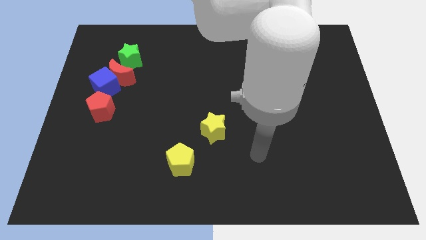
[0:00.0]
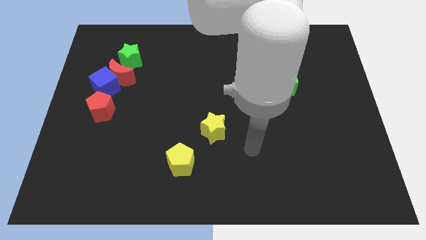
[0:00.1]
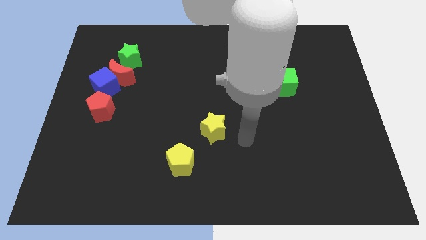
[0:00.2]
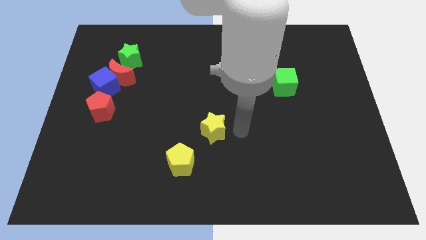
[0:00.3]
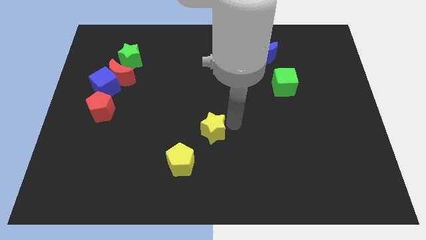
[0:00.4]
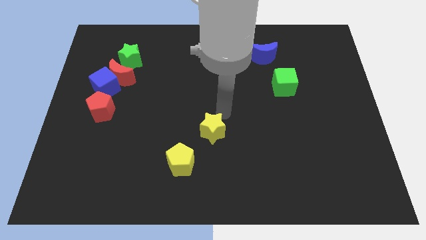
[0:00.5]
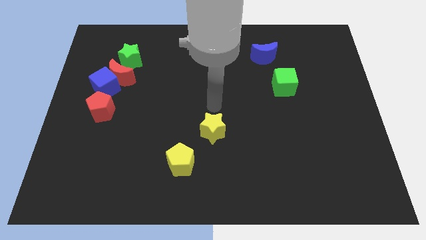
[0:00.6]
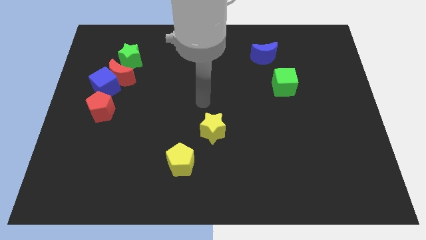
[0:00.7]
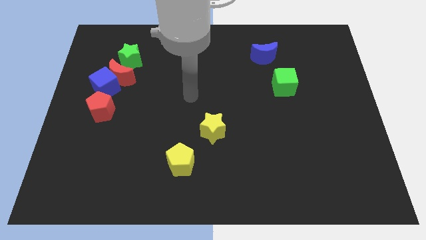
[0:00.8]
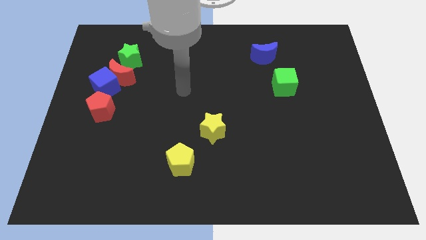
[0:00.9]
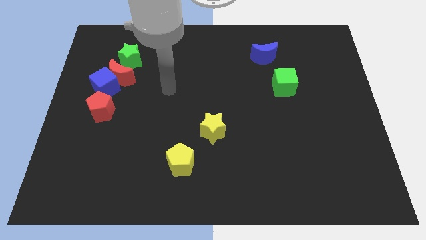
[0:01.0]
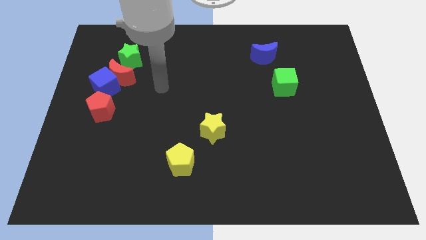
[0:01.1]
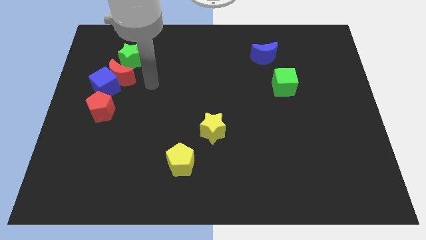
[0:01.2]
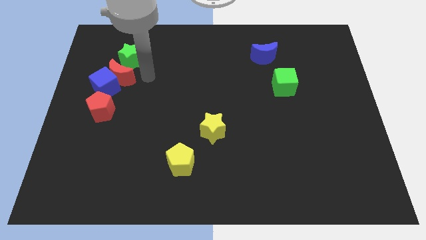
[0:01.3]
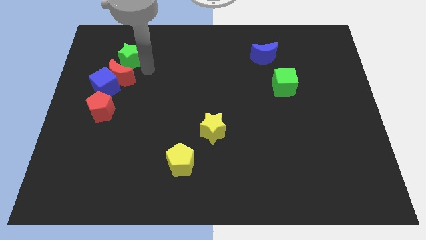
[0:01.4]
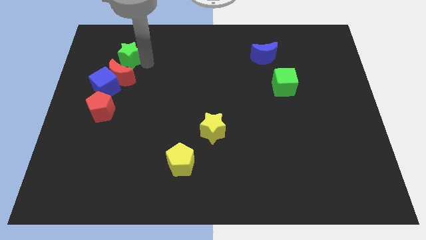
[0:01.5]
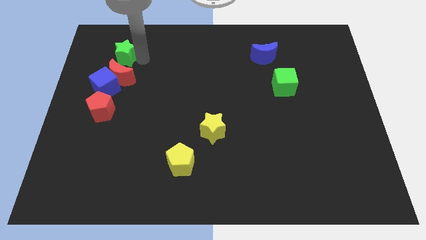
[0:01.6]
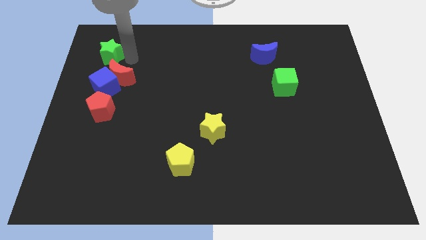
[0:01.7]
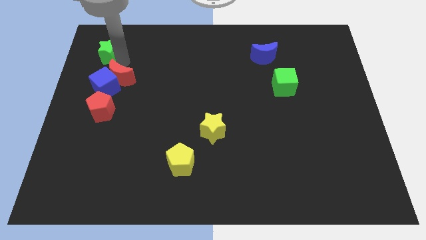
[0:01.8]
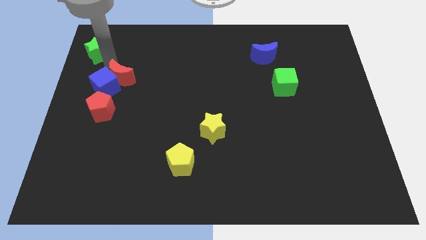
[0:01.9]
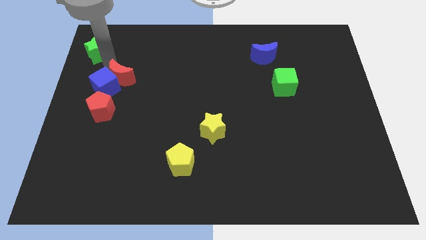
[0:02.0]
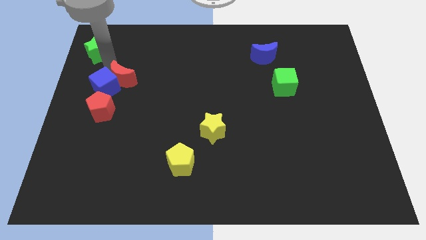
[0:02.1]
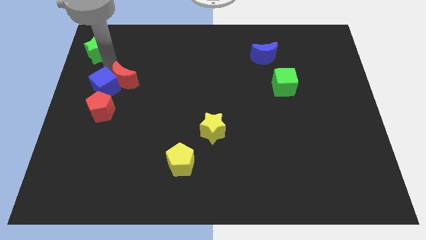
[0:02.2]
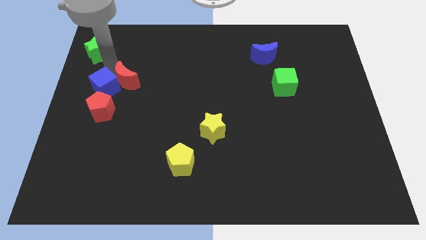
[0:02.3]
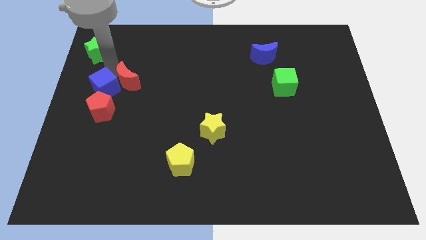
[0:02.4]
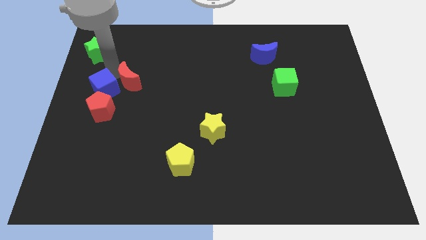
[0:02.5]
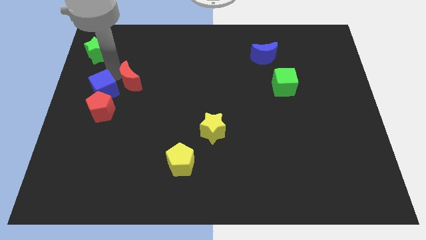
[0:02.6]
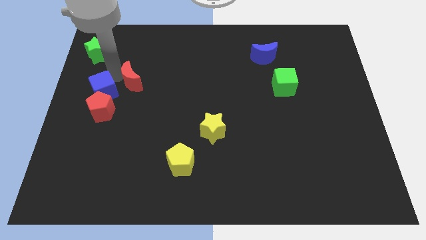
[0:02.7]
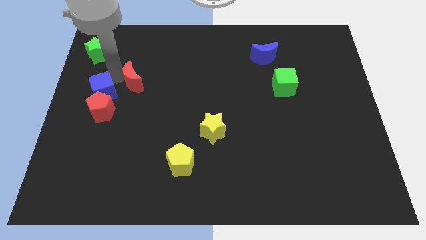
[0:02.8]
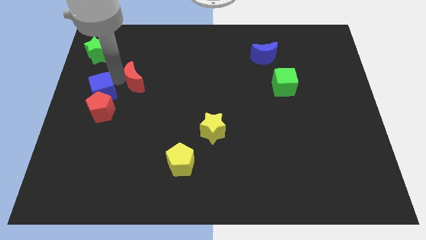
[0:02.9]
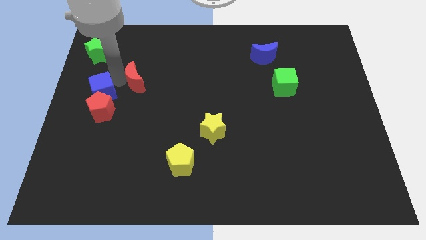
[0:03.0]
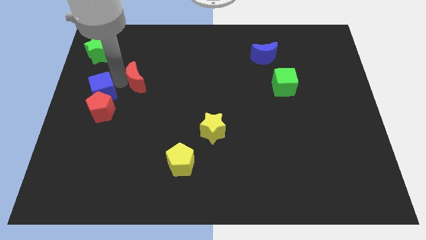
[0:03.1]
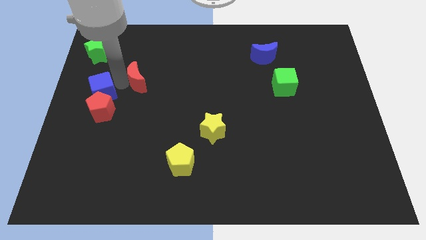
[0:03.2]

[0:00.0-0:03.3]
pull the red moon apart from the blue cube and green star

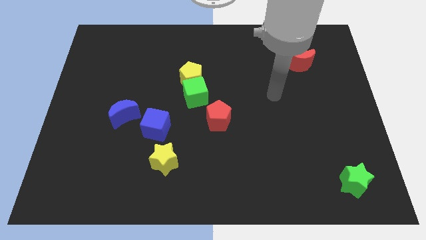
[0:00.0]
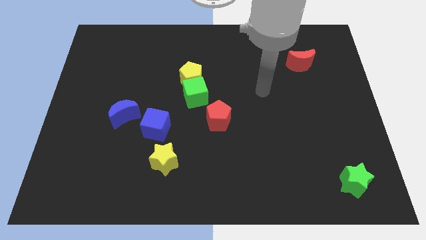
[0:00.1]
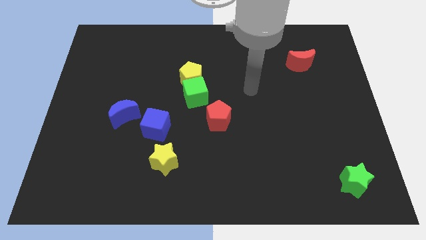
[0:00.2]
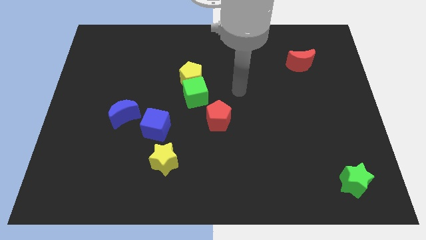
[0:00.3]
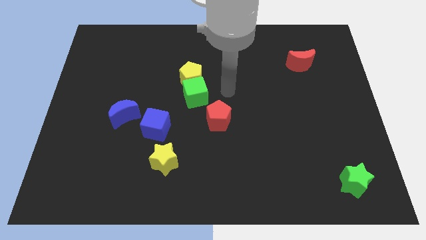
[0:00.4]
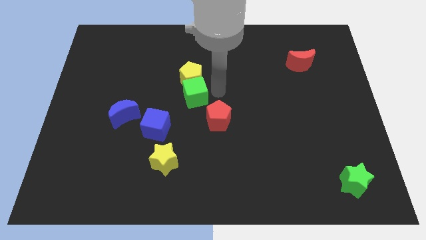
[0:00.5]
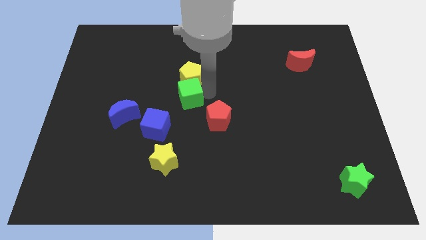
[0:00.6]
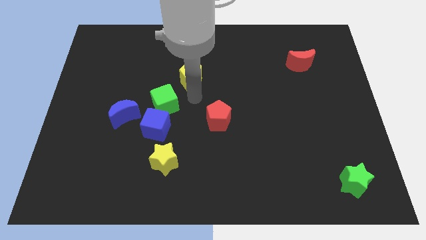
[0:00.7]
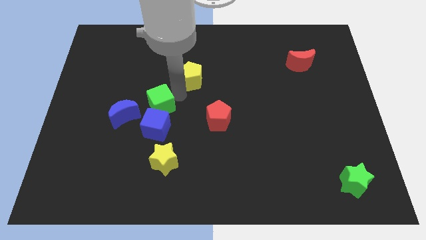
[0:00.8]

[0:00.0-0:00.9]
separate the yellow pentagon from the green cube

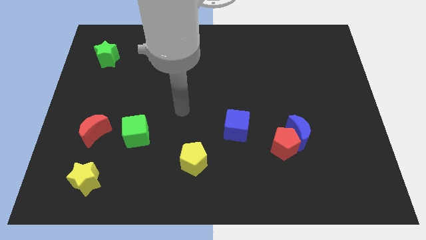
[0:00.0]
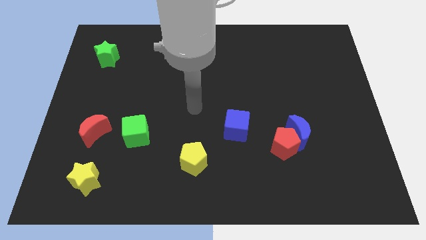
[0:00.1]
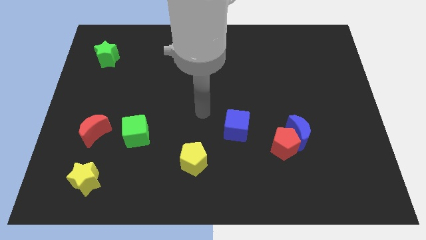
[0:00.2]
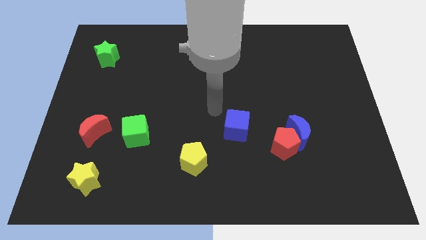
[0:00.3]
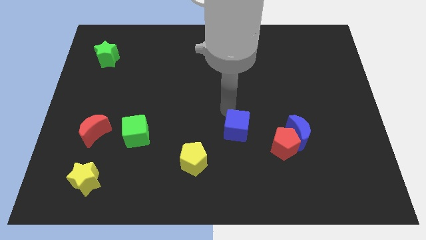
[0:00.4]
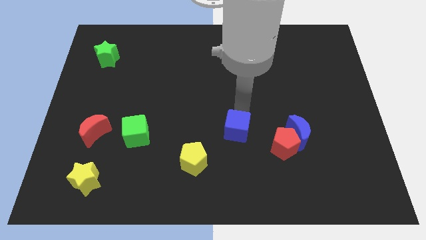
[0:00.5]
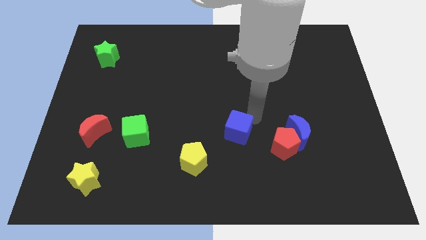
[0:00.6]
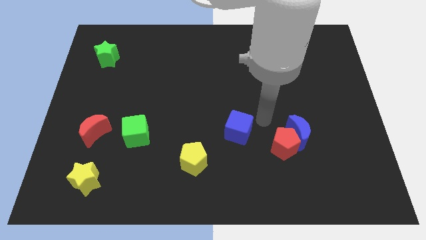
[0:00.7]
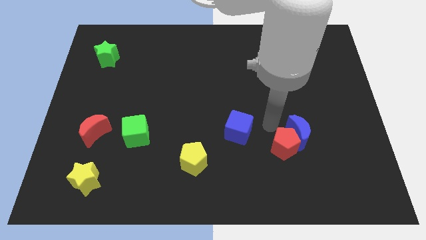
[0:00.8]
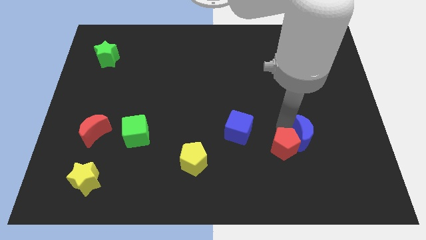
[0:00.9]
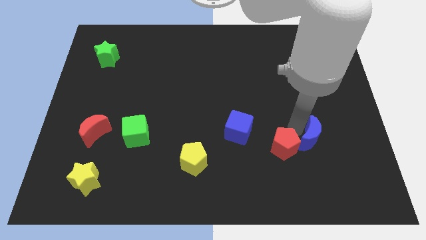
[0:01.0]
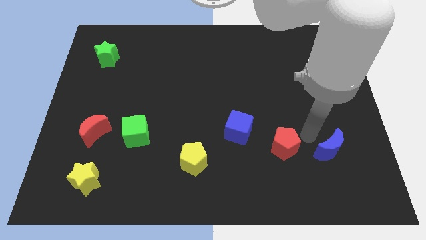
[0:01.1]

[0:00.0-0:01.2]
move the red pentagon away from the blue moon

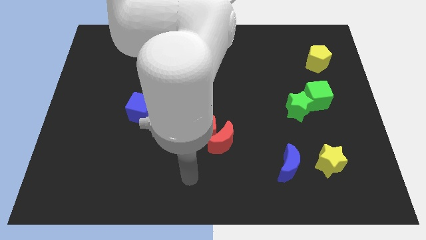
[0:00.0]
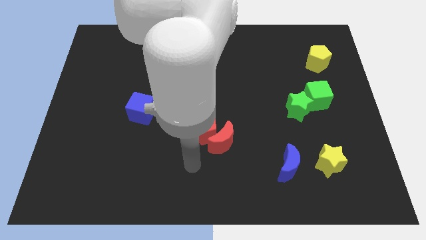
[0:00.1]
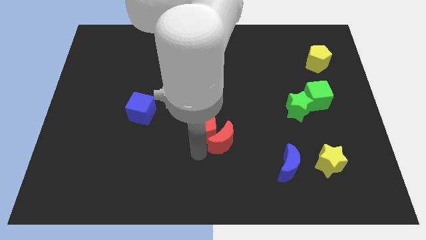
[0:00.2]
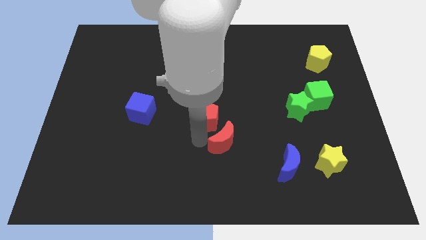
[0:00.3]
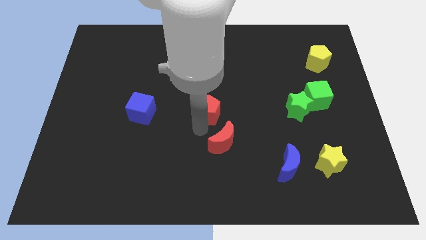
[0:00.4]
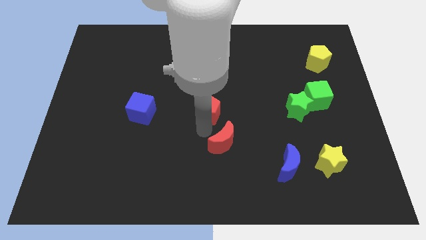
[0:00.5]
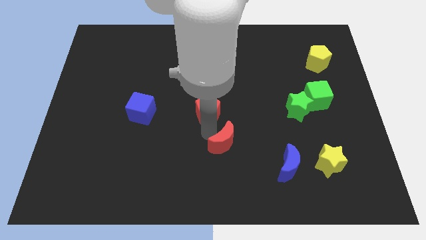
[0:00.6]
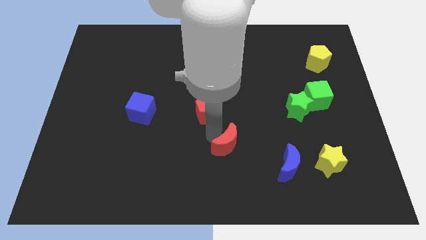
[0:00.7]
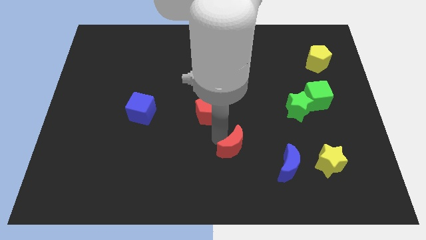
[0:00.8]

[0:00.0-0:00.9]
move the red moon away from the red pentagon

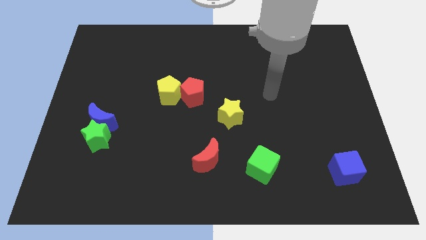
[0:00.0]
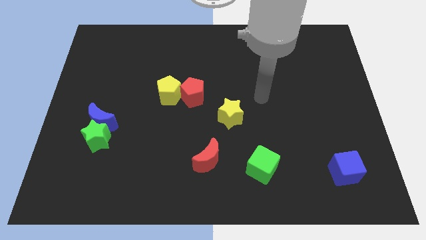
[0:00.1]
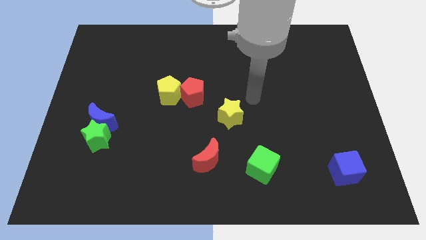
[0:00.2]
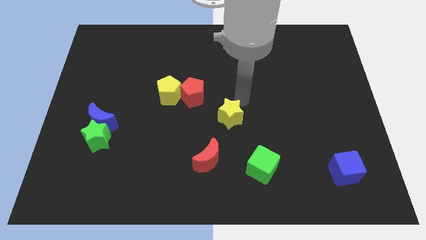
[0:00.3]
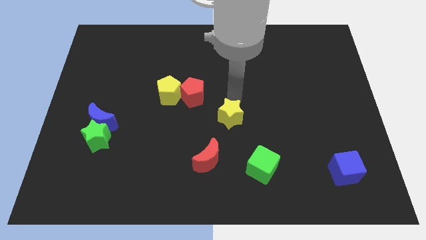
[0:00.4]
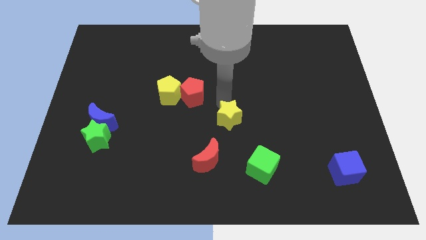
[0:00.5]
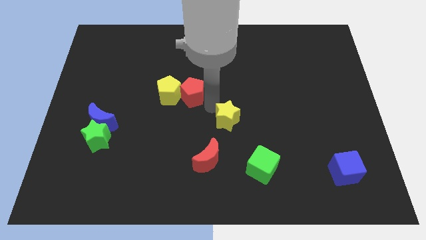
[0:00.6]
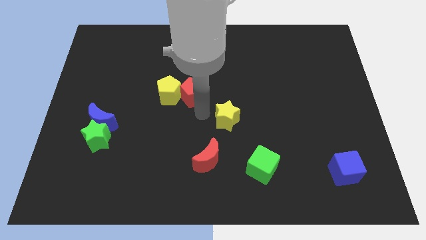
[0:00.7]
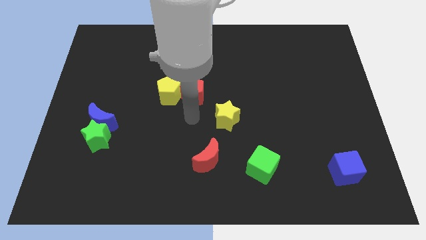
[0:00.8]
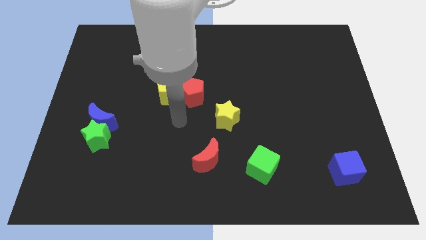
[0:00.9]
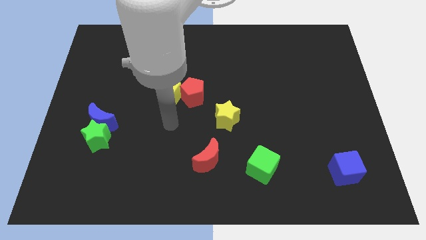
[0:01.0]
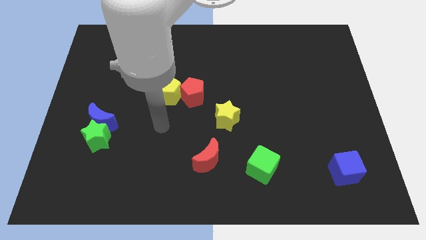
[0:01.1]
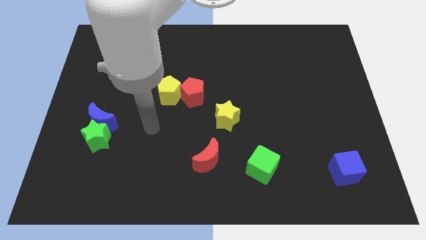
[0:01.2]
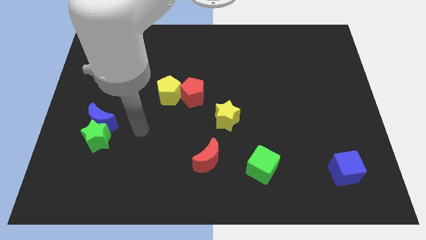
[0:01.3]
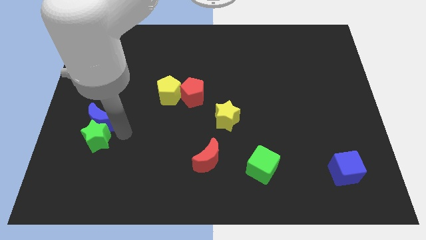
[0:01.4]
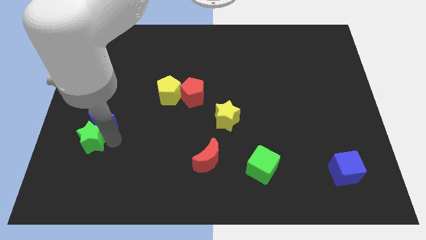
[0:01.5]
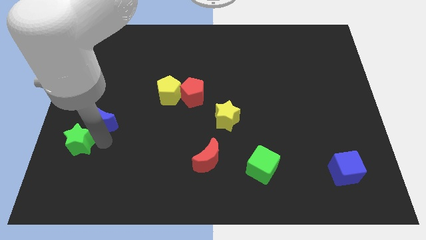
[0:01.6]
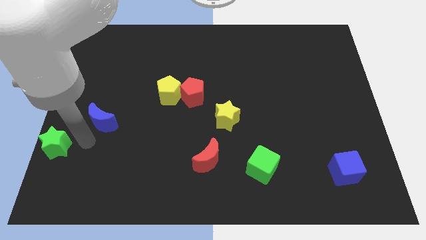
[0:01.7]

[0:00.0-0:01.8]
separate the blue moon from the green star

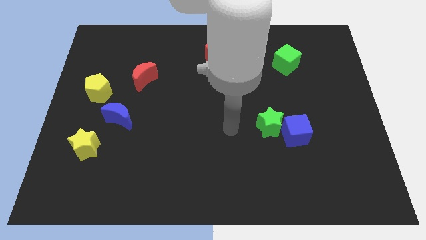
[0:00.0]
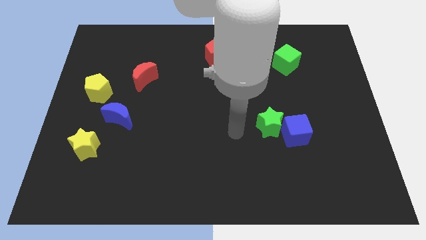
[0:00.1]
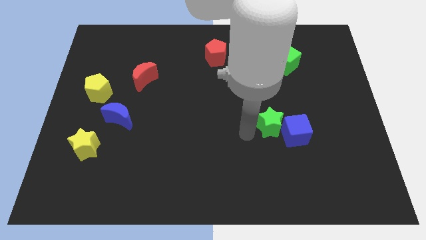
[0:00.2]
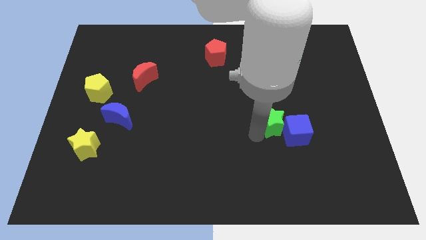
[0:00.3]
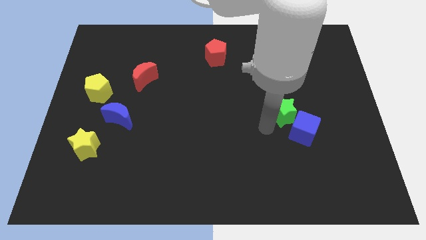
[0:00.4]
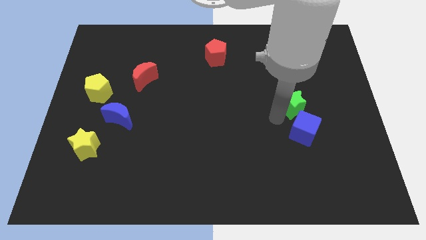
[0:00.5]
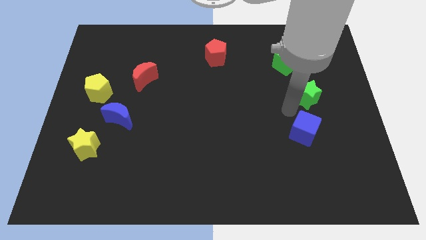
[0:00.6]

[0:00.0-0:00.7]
pull the blue cube apart from the green star

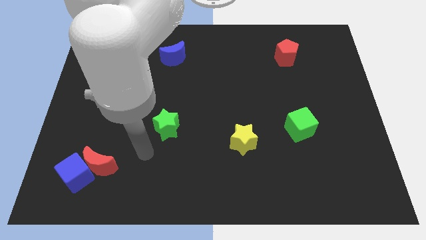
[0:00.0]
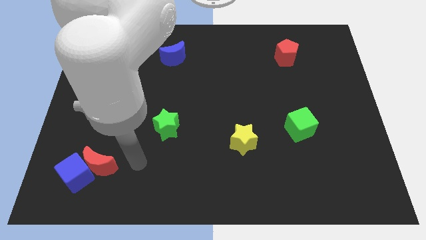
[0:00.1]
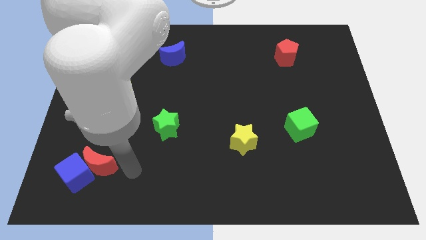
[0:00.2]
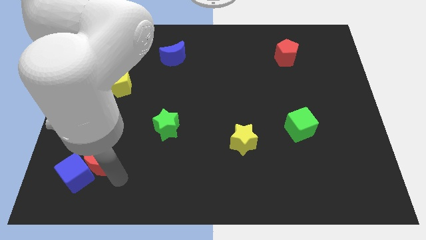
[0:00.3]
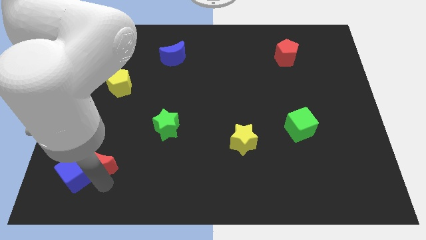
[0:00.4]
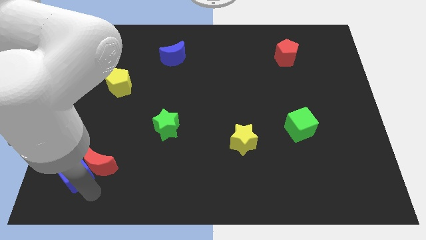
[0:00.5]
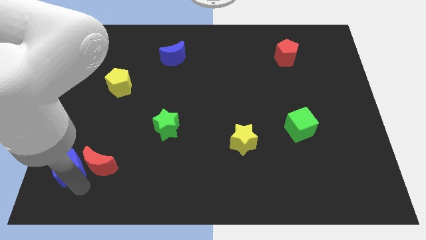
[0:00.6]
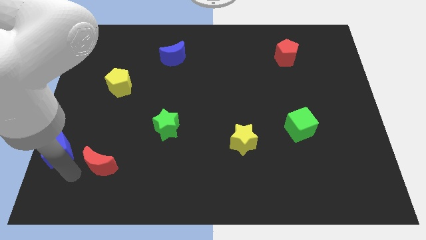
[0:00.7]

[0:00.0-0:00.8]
move the red moon away from the blue cube
